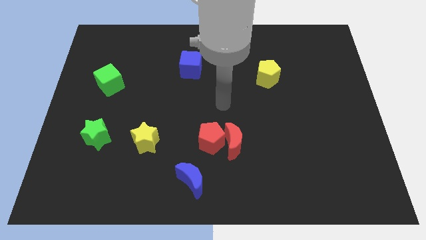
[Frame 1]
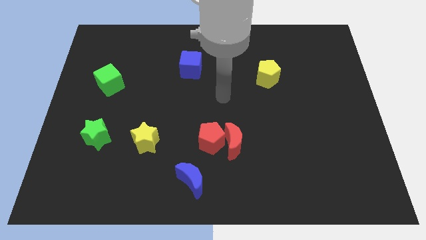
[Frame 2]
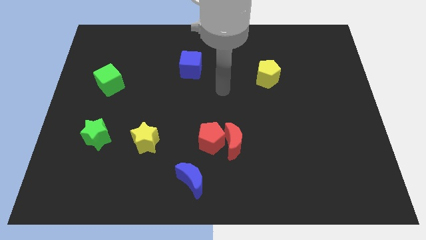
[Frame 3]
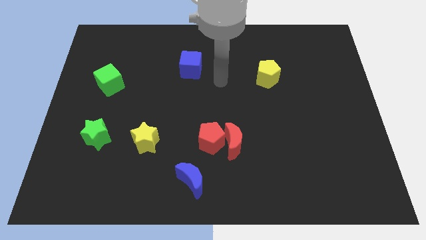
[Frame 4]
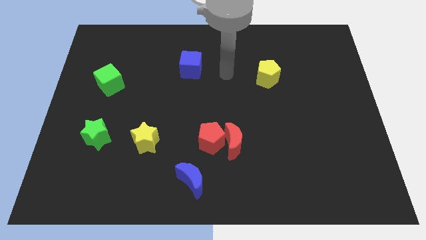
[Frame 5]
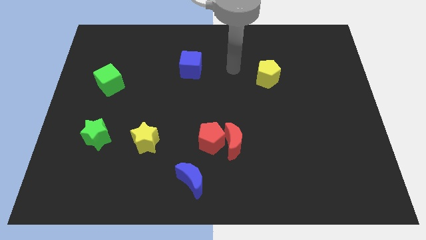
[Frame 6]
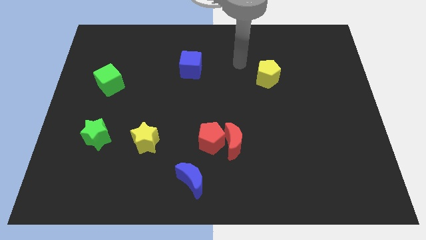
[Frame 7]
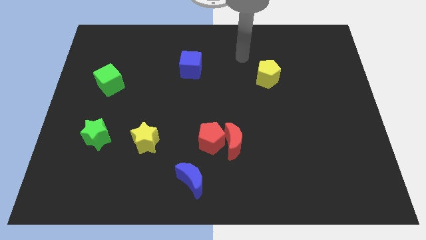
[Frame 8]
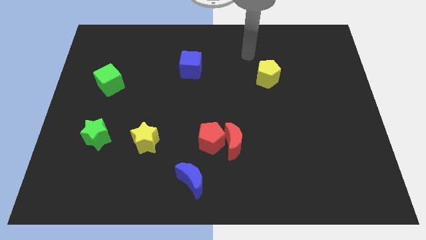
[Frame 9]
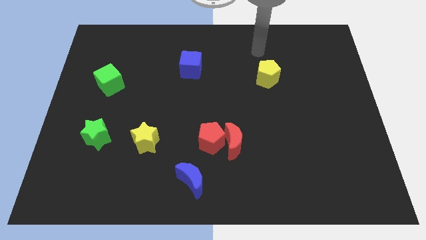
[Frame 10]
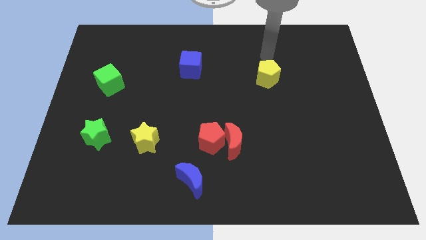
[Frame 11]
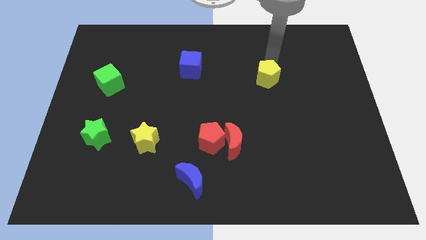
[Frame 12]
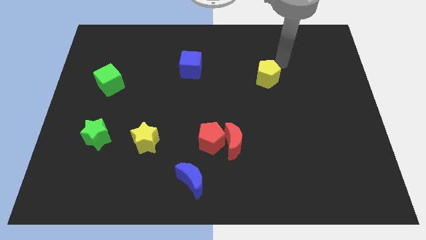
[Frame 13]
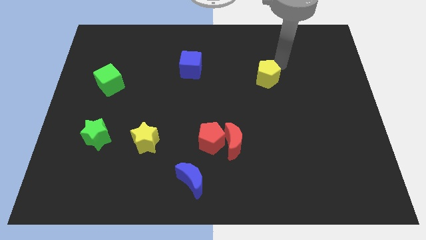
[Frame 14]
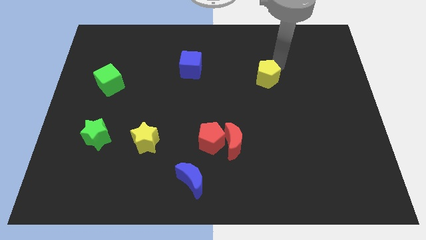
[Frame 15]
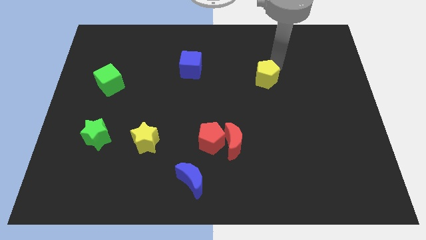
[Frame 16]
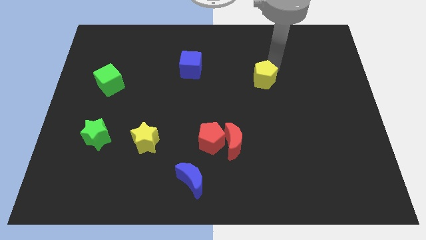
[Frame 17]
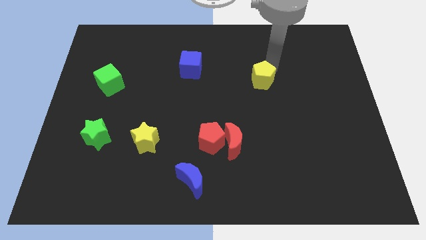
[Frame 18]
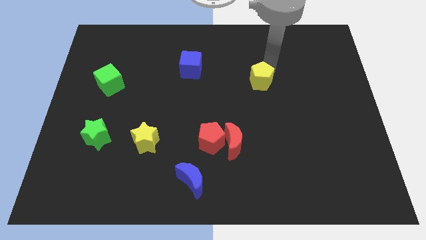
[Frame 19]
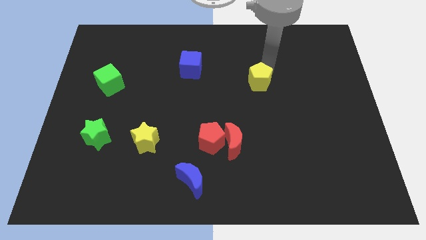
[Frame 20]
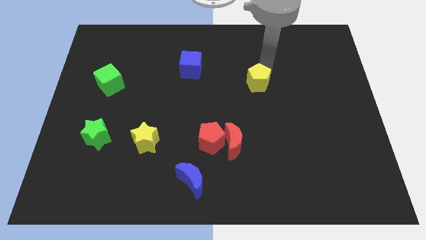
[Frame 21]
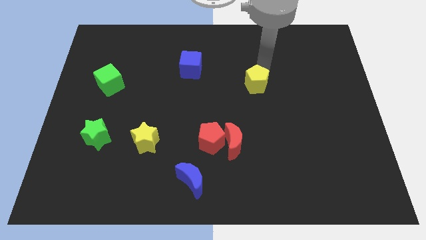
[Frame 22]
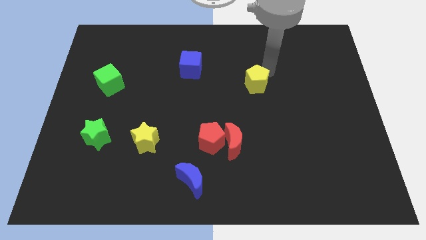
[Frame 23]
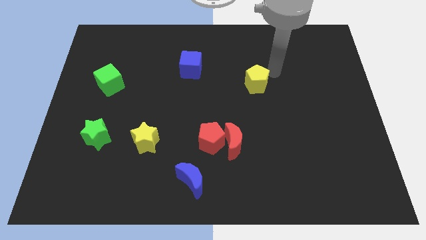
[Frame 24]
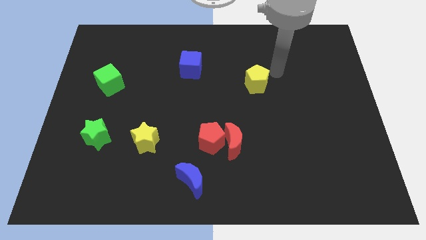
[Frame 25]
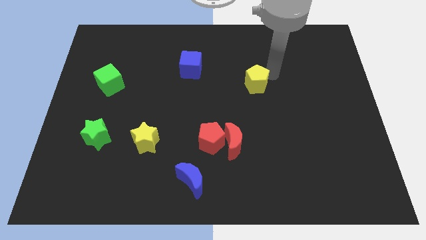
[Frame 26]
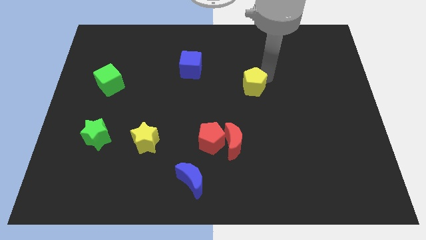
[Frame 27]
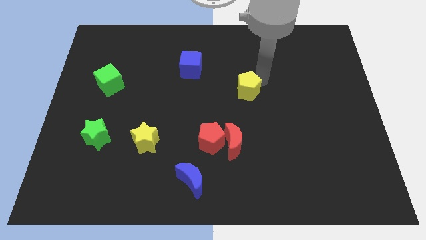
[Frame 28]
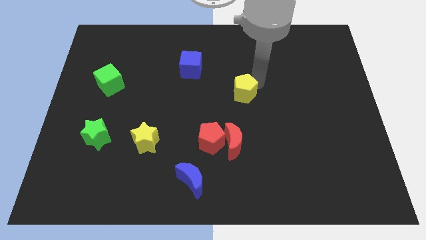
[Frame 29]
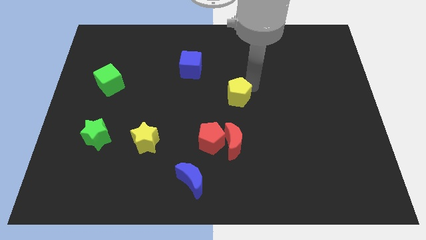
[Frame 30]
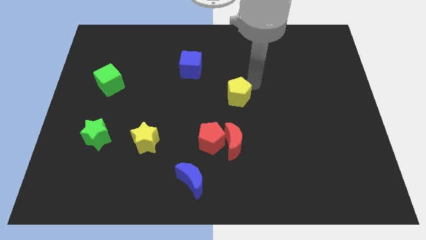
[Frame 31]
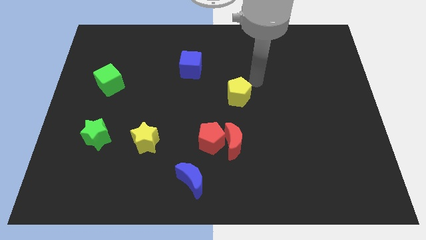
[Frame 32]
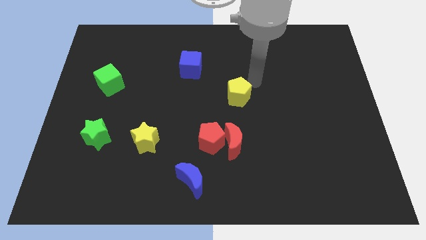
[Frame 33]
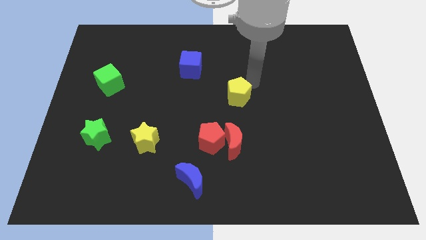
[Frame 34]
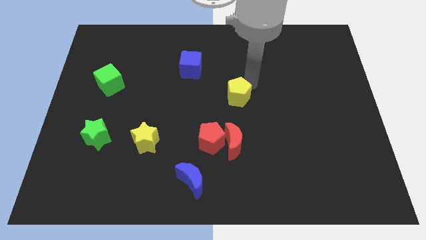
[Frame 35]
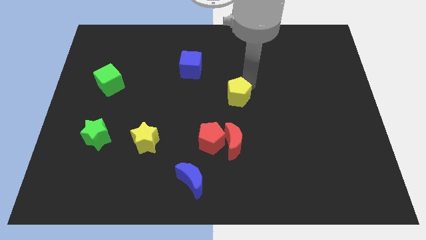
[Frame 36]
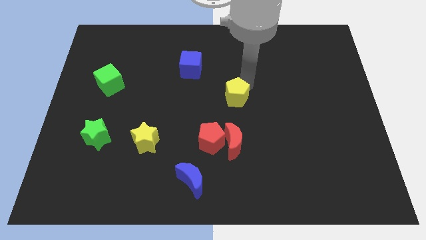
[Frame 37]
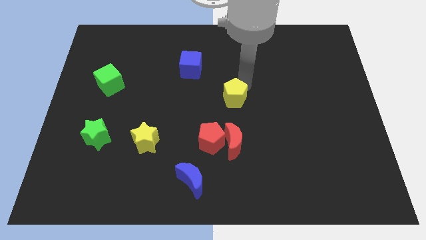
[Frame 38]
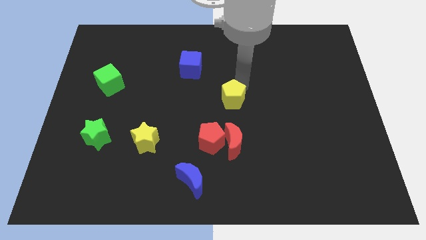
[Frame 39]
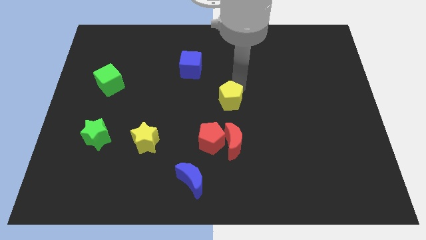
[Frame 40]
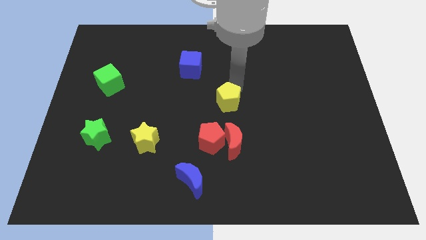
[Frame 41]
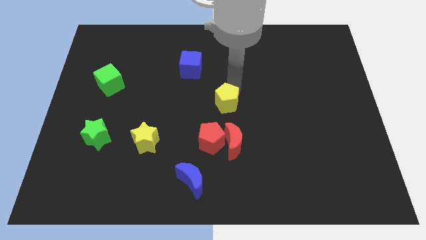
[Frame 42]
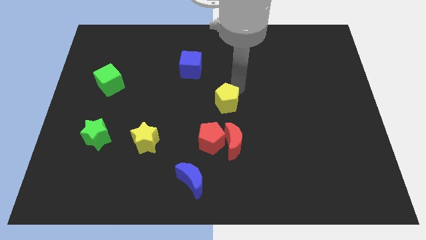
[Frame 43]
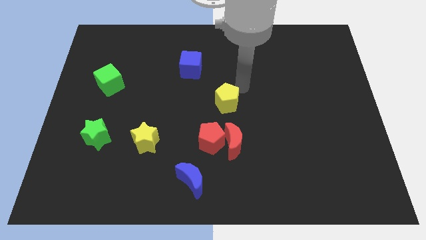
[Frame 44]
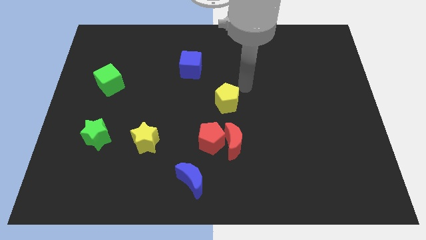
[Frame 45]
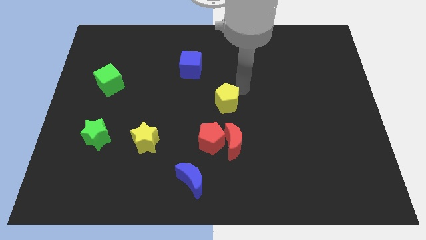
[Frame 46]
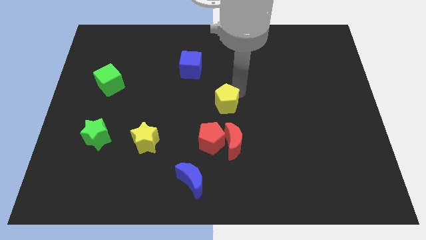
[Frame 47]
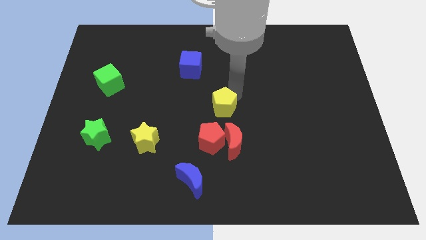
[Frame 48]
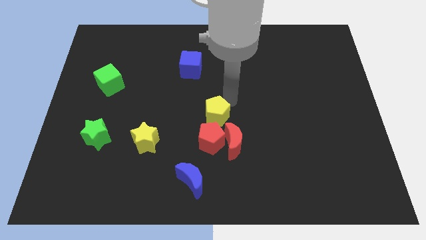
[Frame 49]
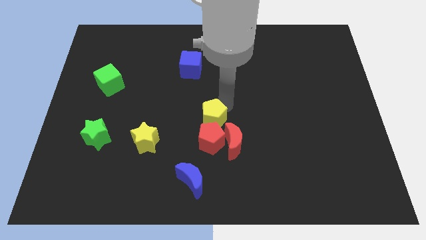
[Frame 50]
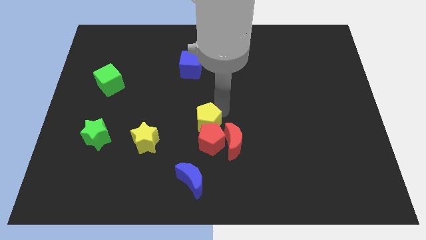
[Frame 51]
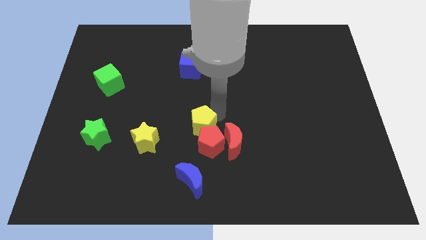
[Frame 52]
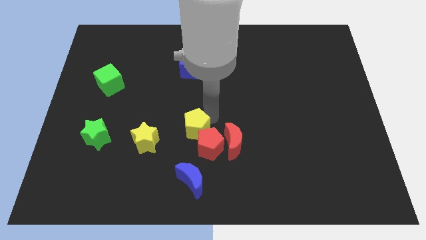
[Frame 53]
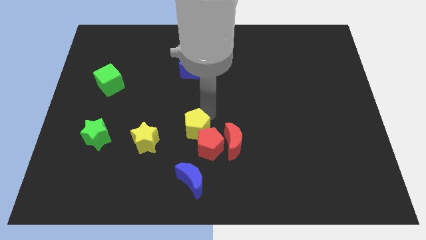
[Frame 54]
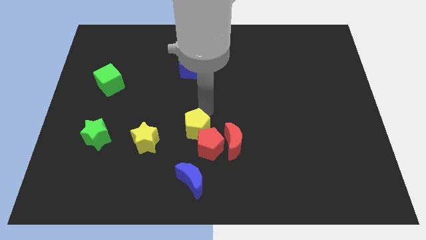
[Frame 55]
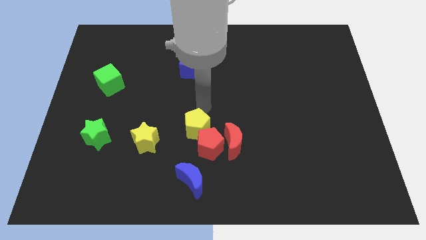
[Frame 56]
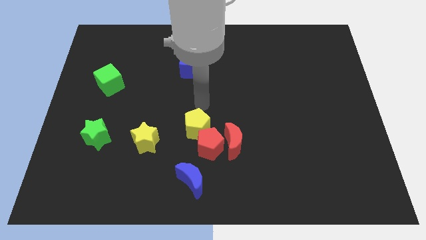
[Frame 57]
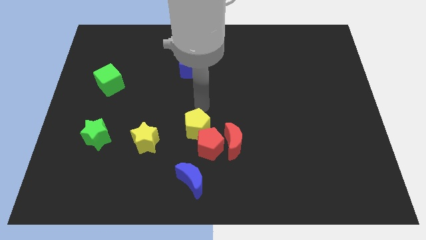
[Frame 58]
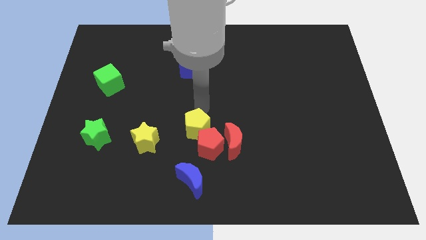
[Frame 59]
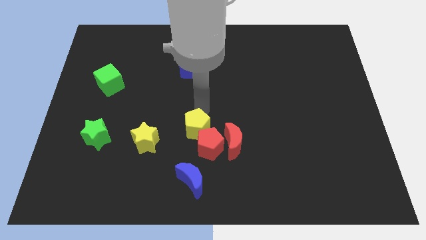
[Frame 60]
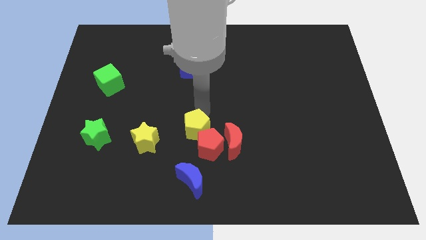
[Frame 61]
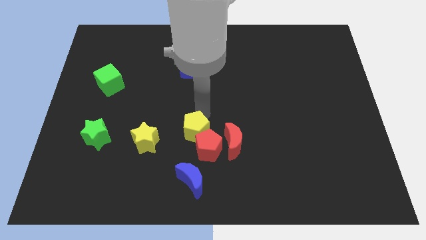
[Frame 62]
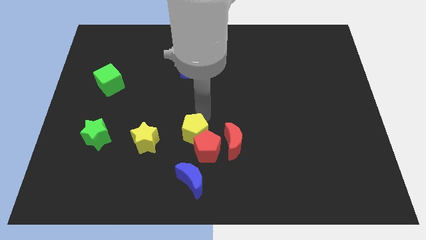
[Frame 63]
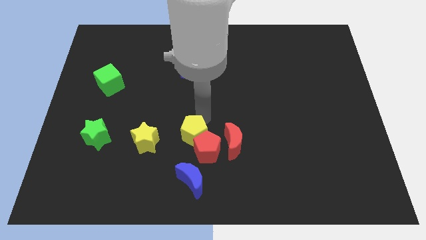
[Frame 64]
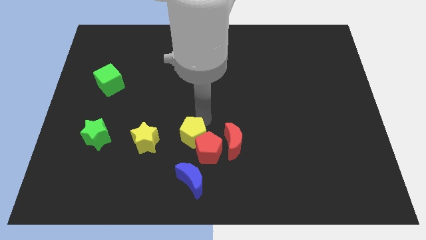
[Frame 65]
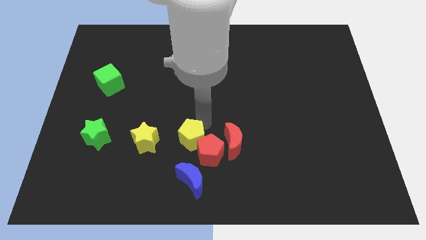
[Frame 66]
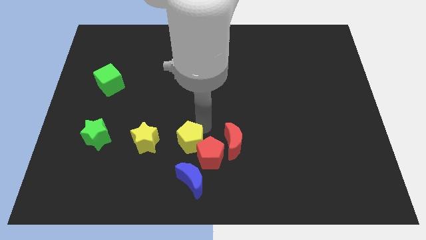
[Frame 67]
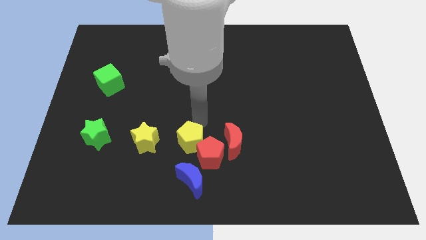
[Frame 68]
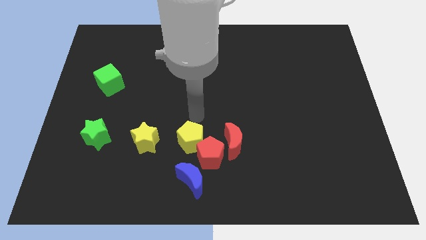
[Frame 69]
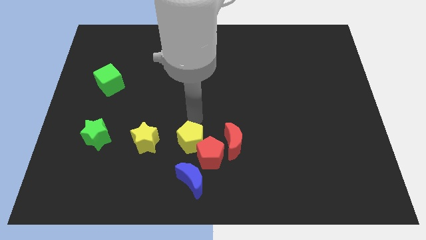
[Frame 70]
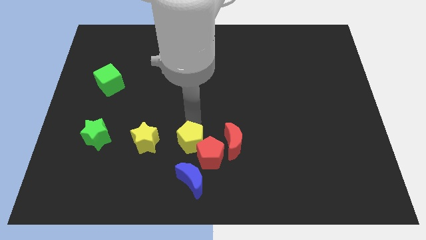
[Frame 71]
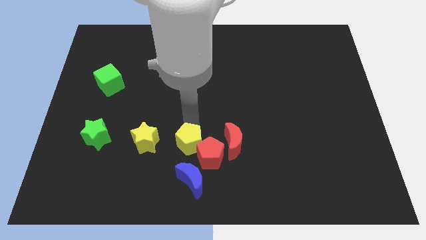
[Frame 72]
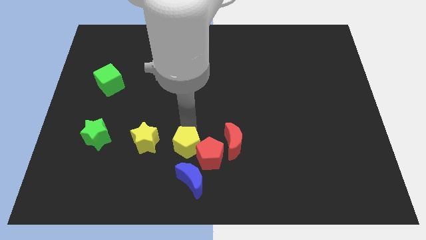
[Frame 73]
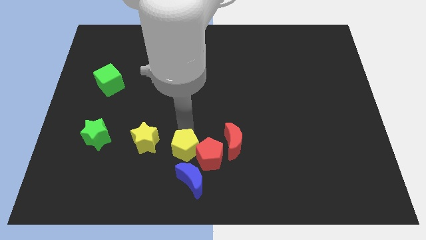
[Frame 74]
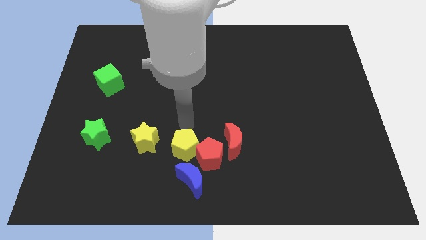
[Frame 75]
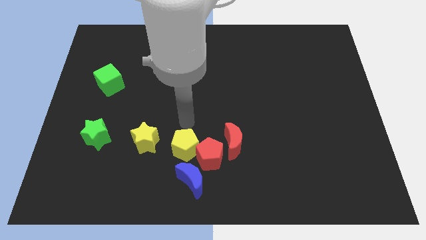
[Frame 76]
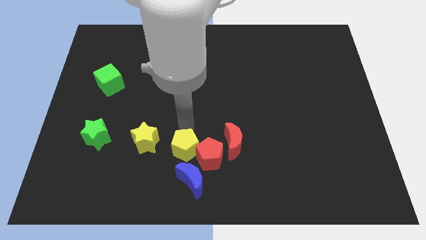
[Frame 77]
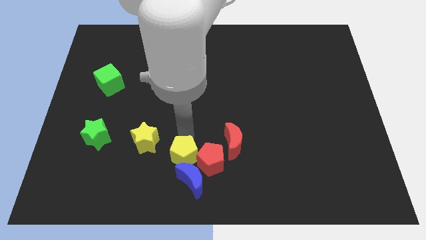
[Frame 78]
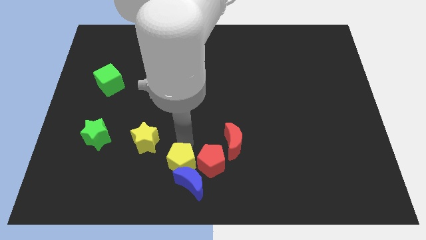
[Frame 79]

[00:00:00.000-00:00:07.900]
move the yellow pentagon to the bottom left of the red pentagon
